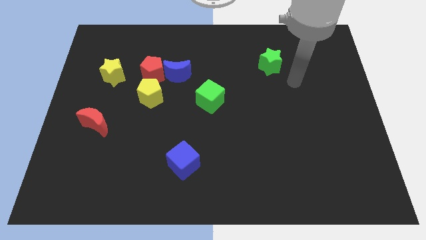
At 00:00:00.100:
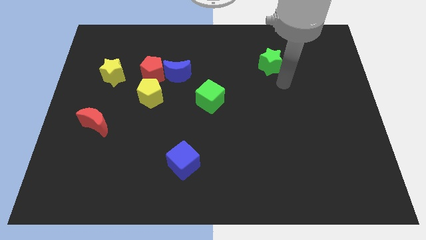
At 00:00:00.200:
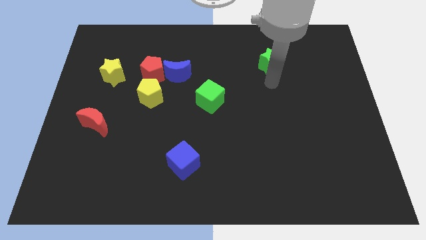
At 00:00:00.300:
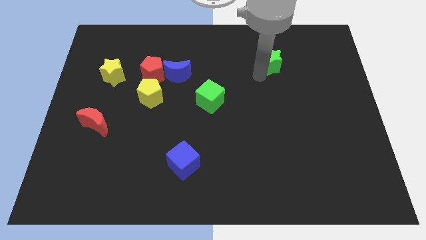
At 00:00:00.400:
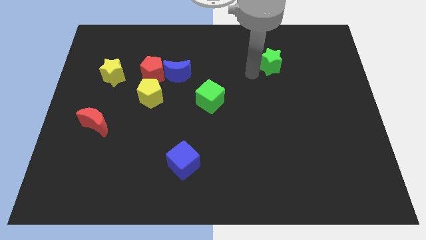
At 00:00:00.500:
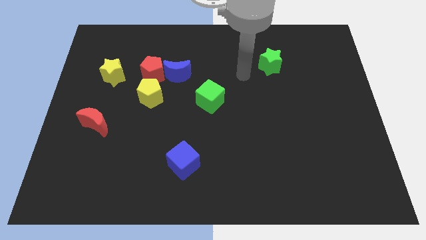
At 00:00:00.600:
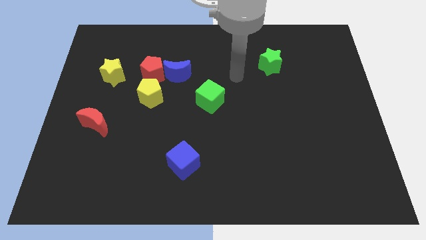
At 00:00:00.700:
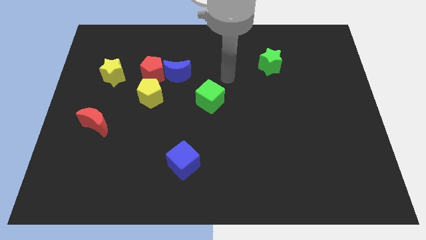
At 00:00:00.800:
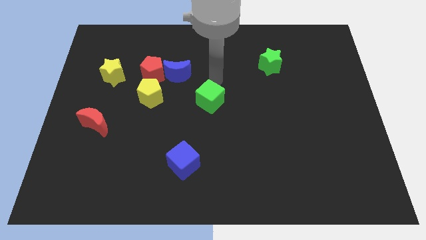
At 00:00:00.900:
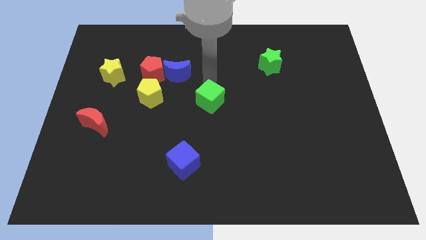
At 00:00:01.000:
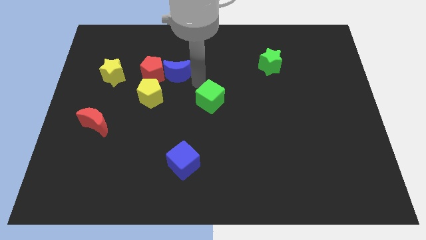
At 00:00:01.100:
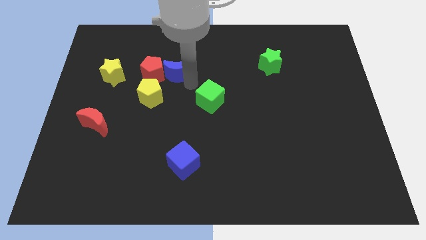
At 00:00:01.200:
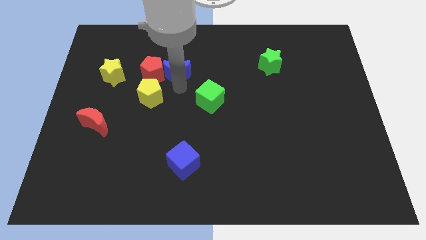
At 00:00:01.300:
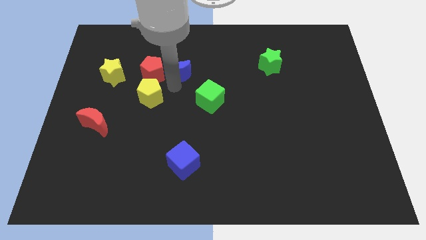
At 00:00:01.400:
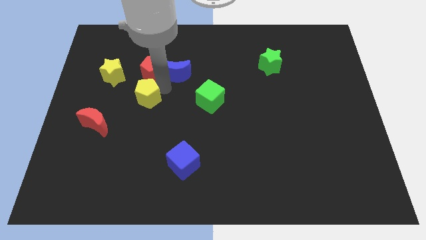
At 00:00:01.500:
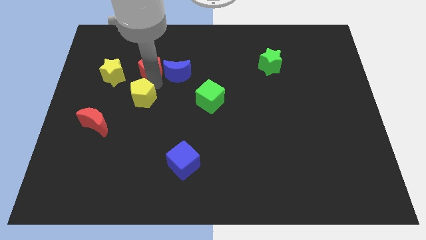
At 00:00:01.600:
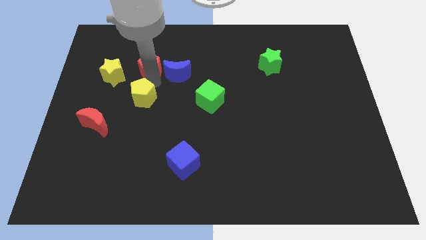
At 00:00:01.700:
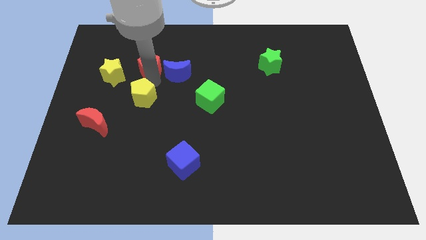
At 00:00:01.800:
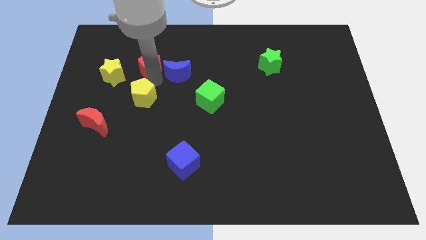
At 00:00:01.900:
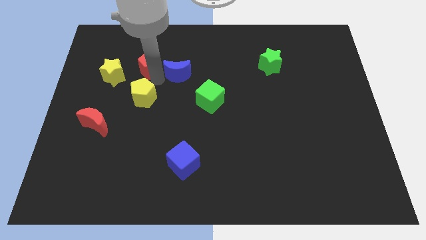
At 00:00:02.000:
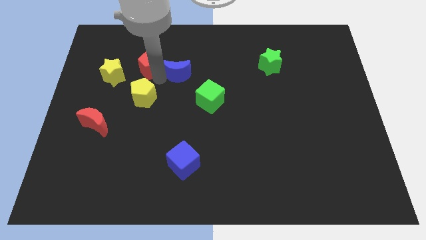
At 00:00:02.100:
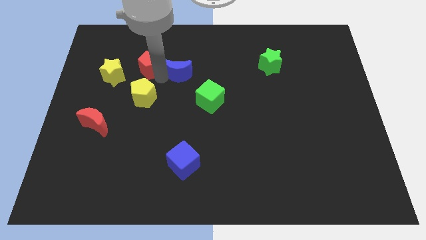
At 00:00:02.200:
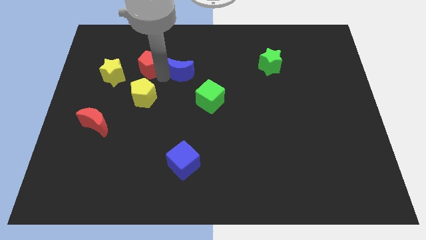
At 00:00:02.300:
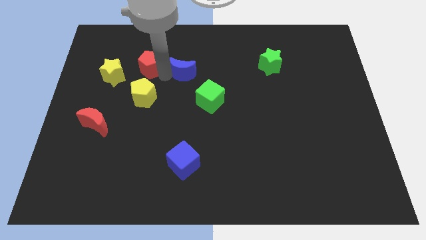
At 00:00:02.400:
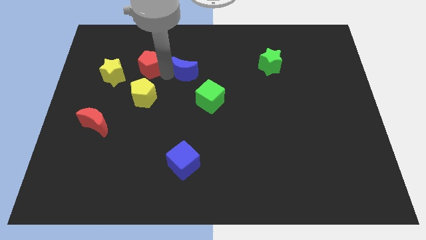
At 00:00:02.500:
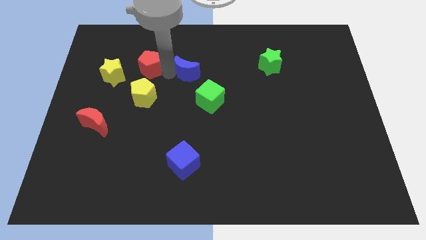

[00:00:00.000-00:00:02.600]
separate the blue moon from the red pentagon and yellow pentagon

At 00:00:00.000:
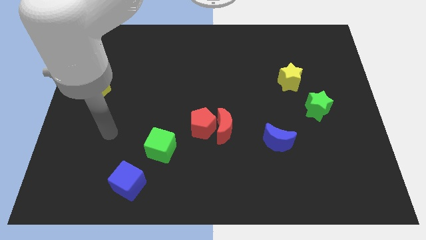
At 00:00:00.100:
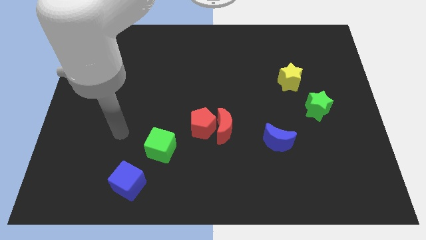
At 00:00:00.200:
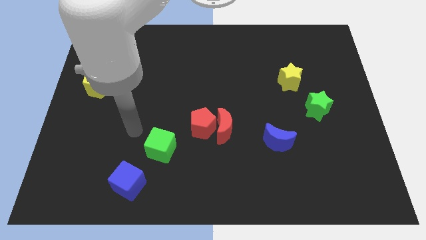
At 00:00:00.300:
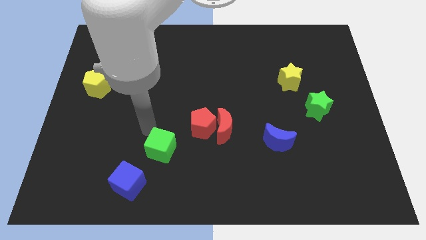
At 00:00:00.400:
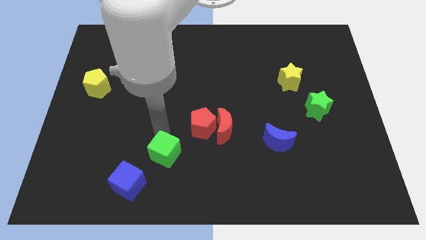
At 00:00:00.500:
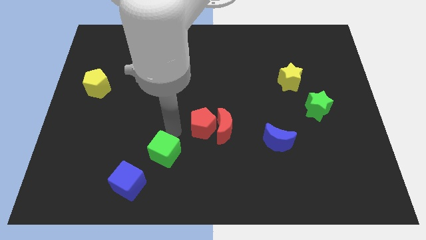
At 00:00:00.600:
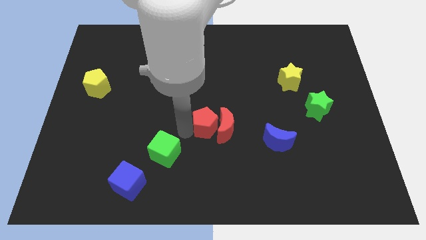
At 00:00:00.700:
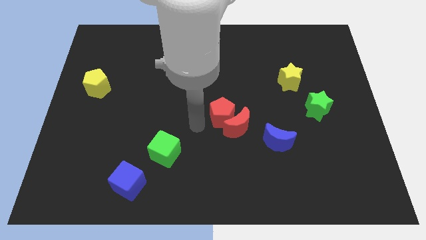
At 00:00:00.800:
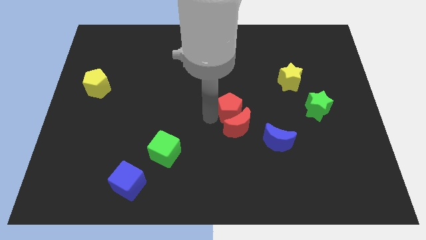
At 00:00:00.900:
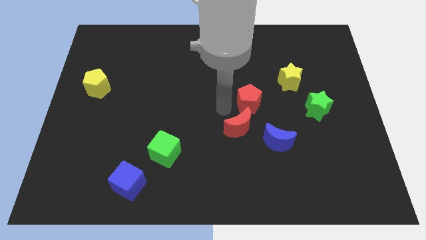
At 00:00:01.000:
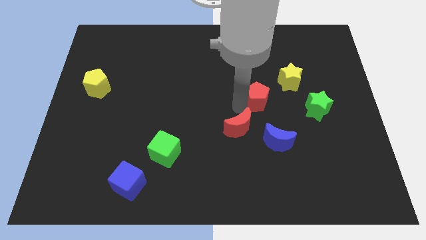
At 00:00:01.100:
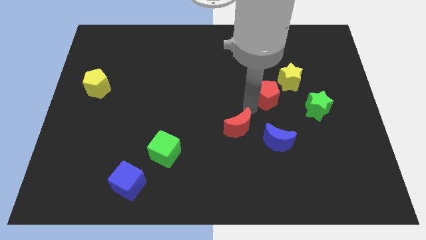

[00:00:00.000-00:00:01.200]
pull the red moon apart from the red pentagon

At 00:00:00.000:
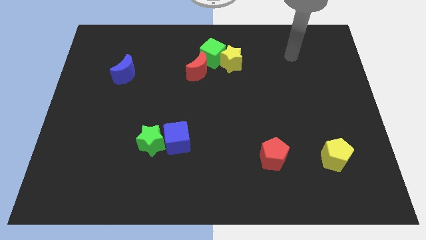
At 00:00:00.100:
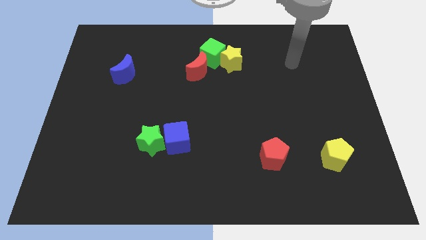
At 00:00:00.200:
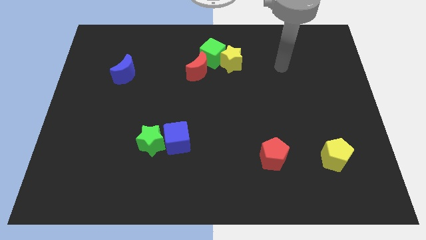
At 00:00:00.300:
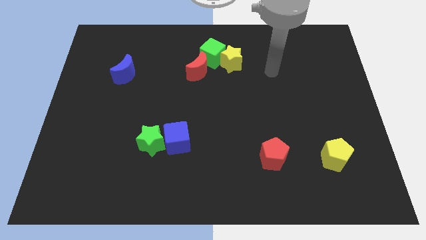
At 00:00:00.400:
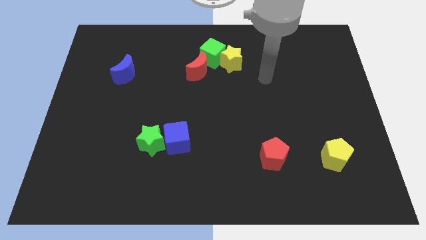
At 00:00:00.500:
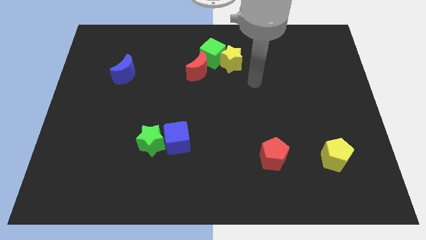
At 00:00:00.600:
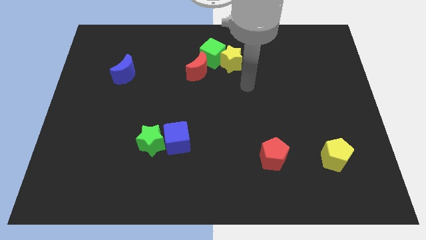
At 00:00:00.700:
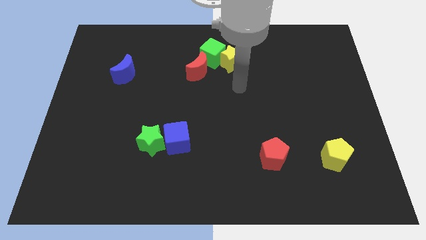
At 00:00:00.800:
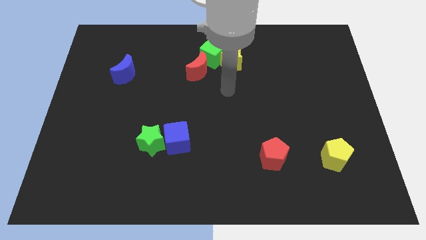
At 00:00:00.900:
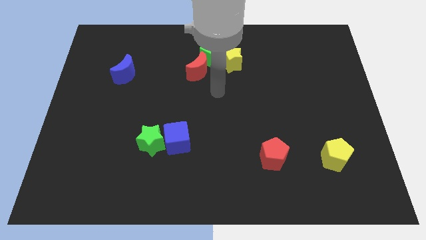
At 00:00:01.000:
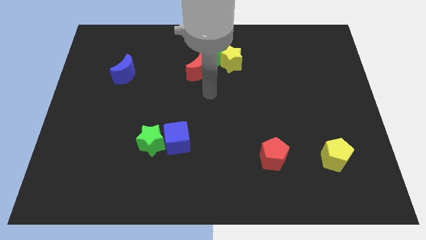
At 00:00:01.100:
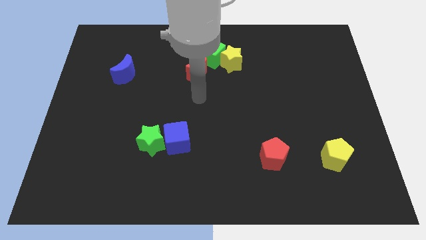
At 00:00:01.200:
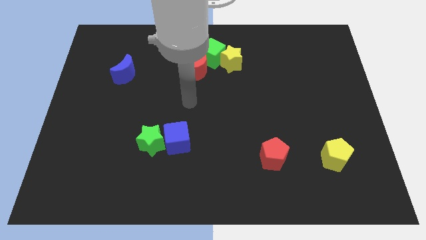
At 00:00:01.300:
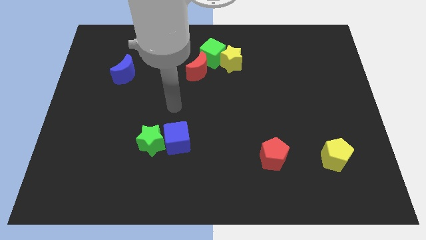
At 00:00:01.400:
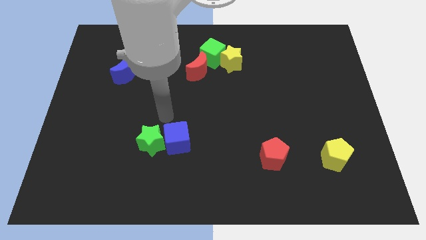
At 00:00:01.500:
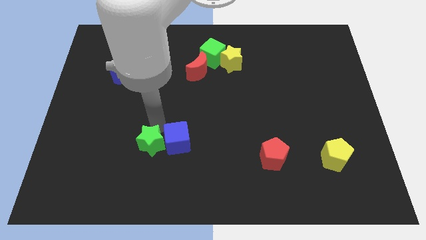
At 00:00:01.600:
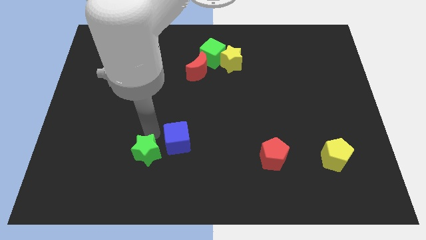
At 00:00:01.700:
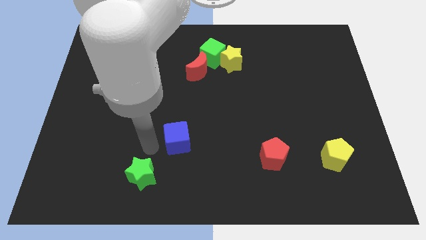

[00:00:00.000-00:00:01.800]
separate the blue cube from the green star

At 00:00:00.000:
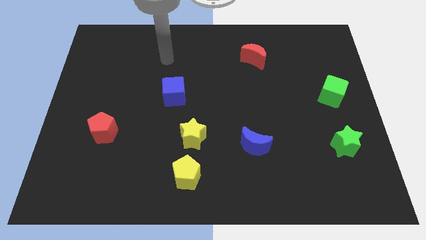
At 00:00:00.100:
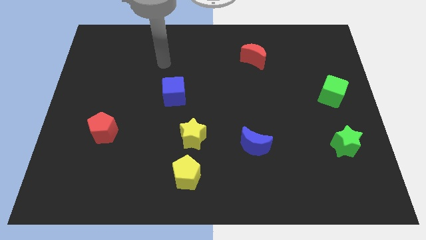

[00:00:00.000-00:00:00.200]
separate the yellow star from the yellow pentagon

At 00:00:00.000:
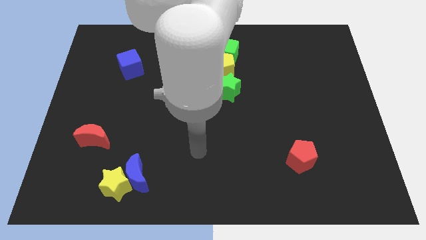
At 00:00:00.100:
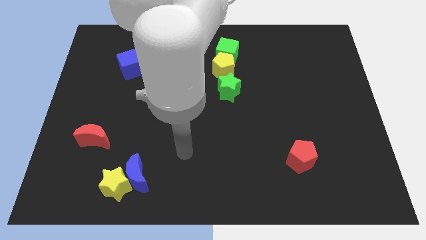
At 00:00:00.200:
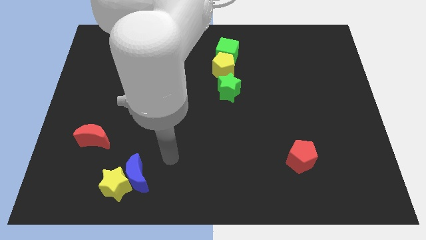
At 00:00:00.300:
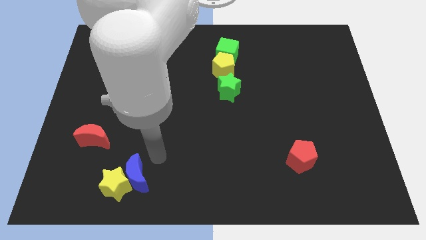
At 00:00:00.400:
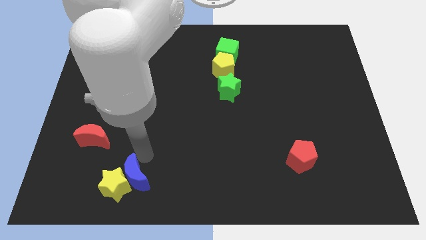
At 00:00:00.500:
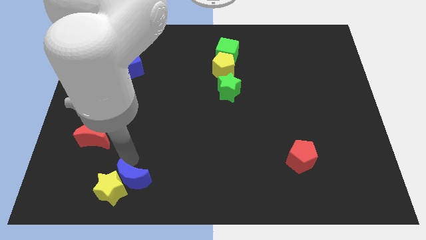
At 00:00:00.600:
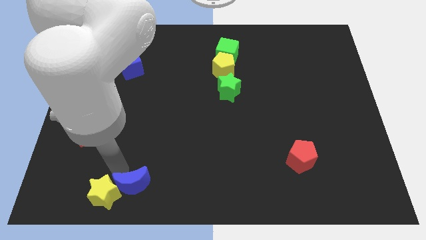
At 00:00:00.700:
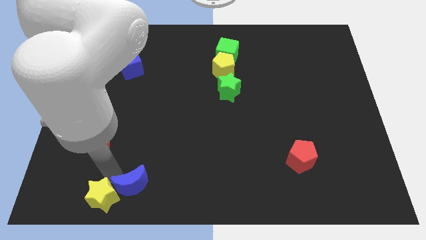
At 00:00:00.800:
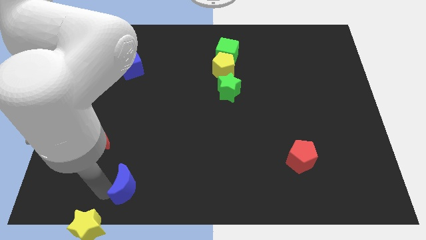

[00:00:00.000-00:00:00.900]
move the blue moon away from the yellow star

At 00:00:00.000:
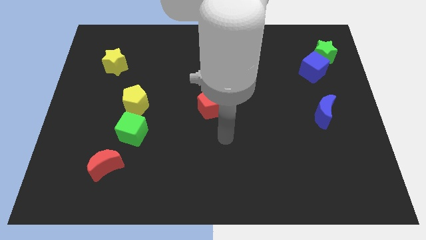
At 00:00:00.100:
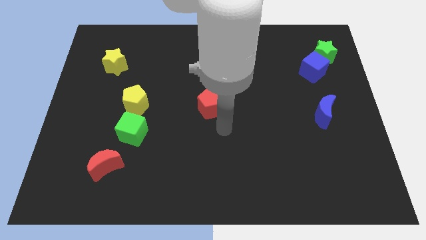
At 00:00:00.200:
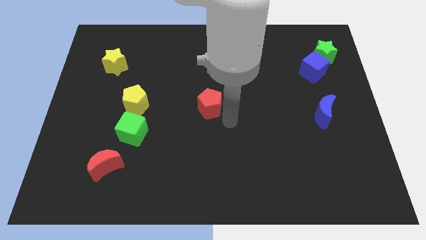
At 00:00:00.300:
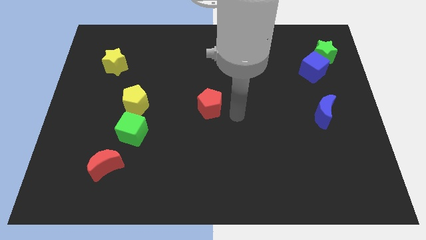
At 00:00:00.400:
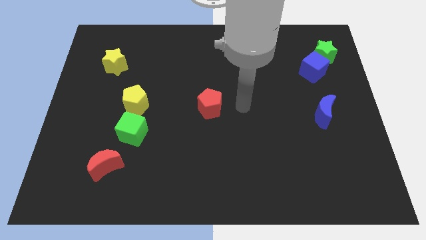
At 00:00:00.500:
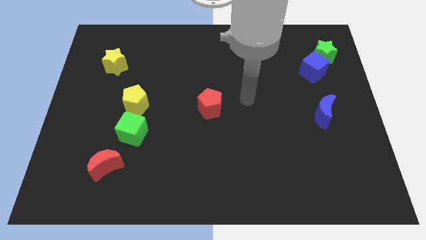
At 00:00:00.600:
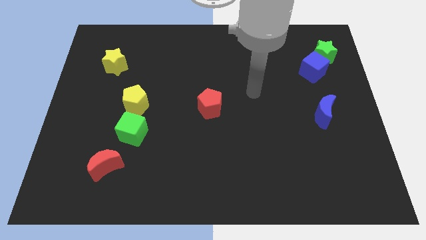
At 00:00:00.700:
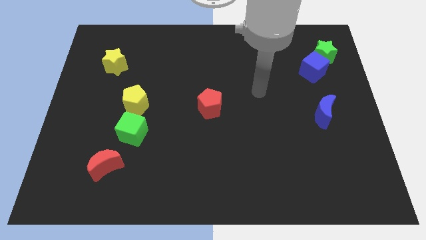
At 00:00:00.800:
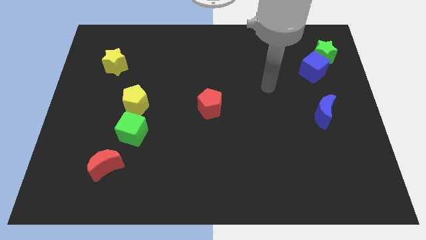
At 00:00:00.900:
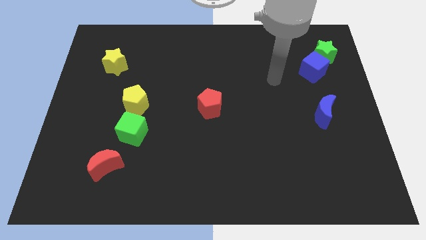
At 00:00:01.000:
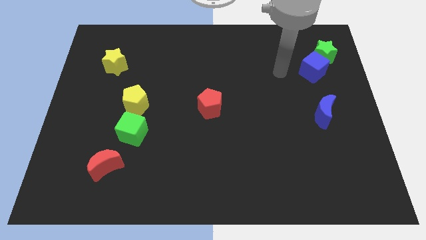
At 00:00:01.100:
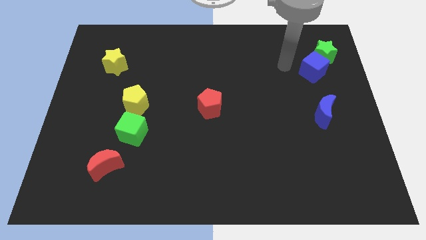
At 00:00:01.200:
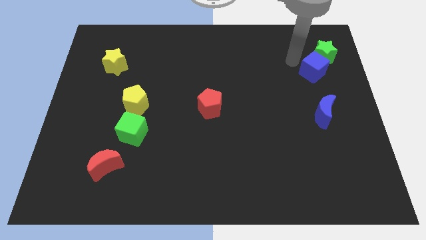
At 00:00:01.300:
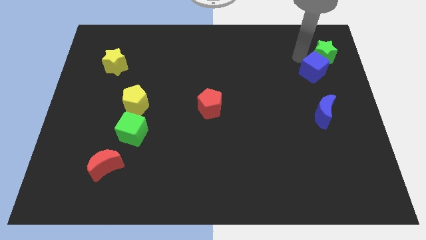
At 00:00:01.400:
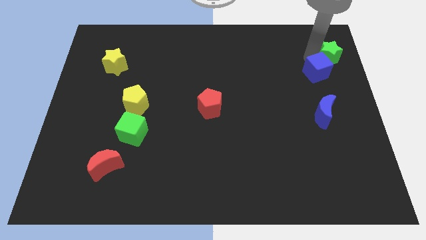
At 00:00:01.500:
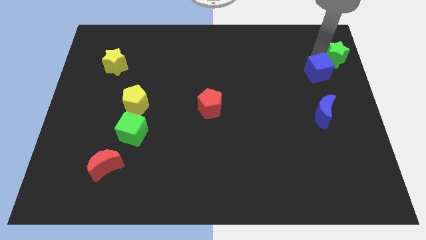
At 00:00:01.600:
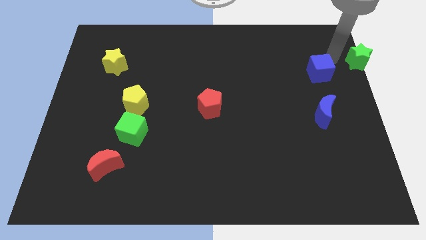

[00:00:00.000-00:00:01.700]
move the blue cube away from the green star

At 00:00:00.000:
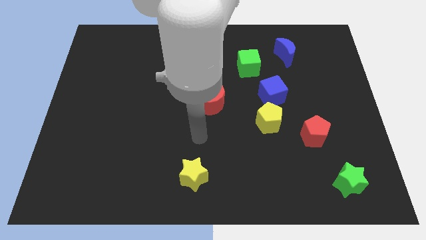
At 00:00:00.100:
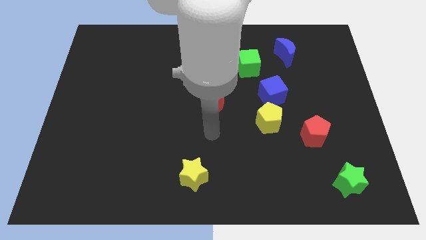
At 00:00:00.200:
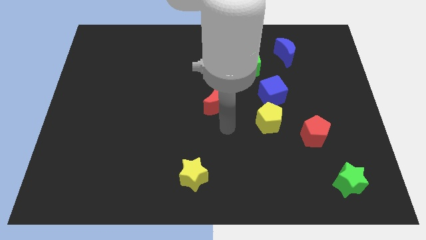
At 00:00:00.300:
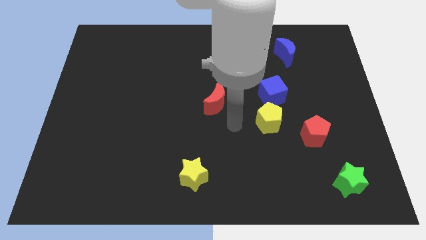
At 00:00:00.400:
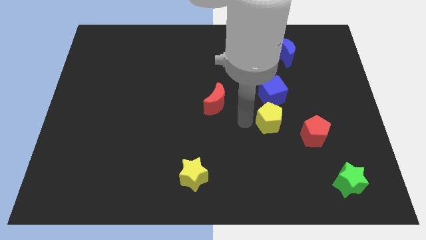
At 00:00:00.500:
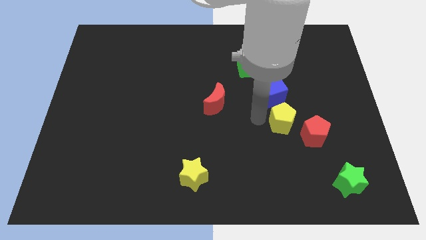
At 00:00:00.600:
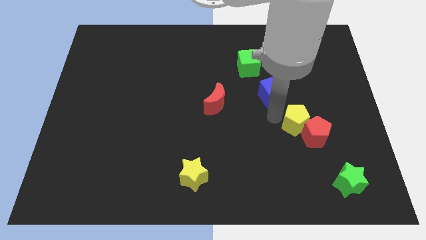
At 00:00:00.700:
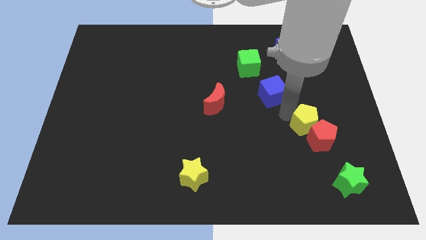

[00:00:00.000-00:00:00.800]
pull the blue cube apart from the yellow pentagon

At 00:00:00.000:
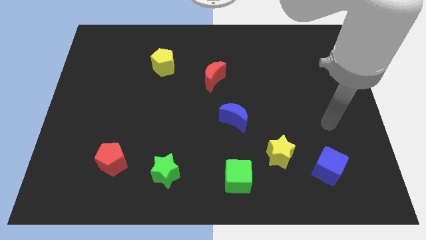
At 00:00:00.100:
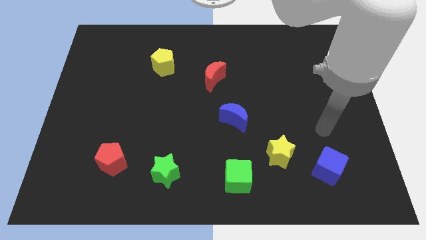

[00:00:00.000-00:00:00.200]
move the blue cube away from the yellow star
